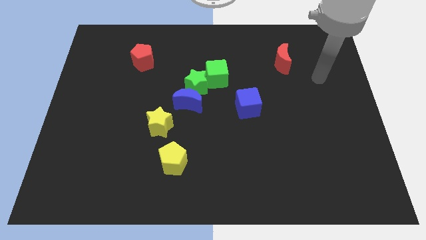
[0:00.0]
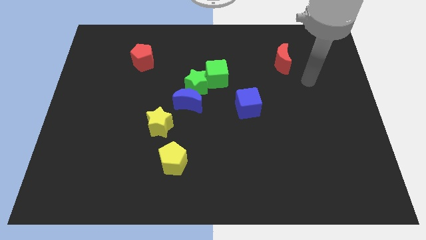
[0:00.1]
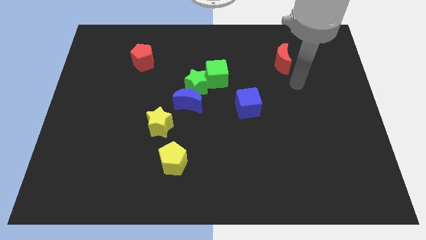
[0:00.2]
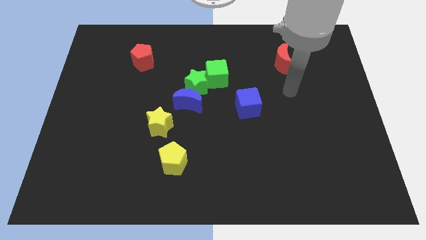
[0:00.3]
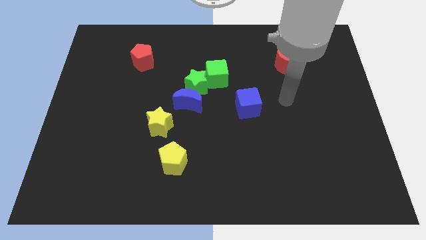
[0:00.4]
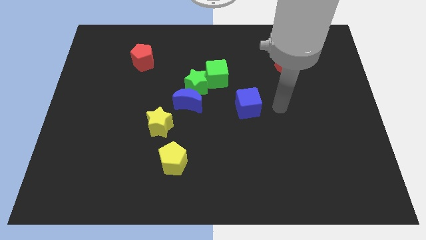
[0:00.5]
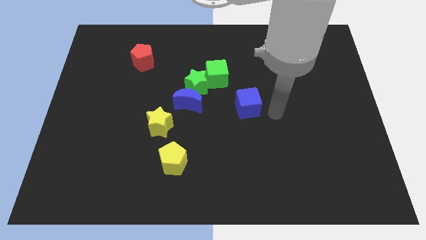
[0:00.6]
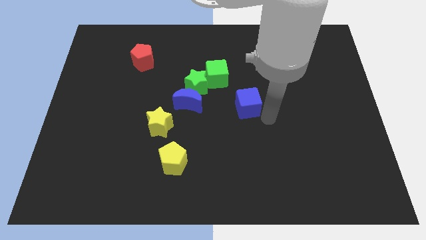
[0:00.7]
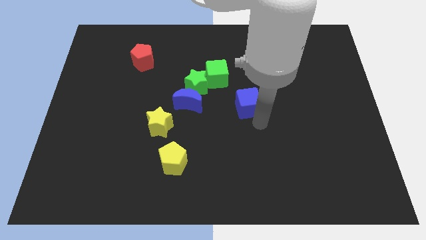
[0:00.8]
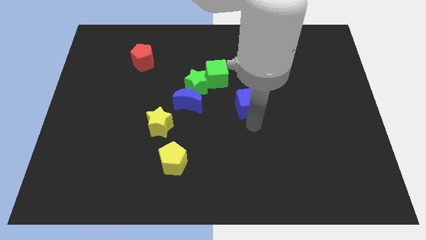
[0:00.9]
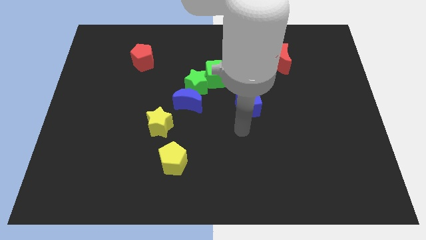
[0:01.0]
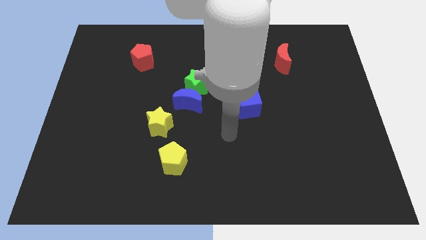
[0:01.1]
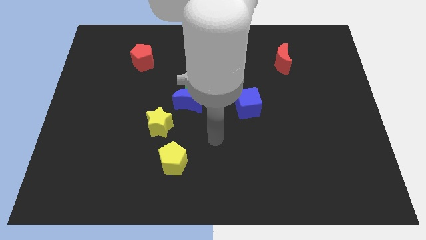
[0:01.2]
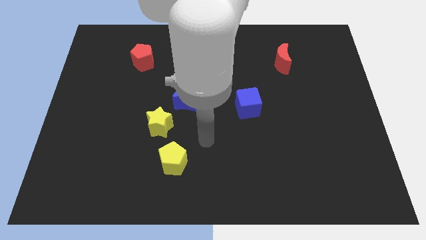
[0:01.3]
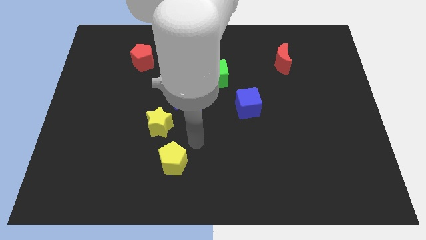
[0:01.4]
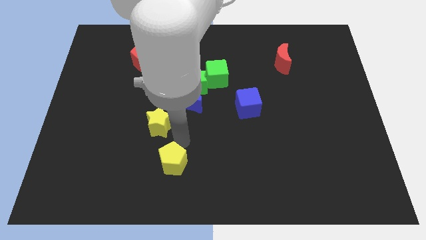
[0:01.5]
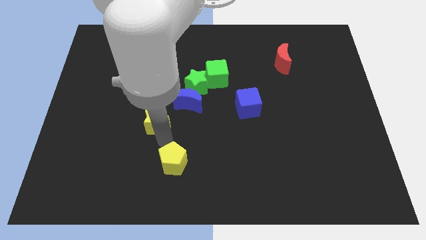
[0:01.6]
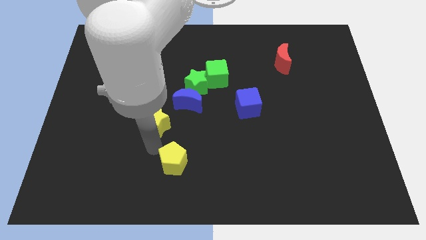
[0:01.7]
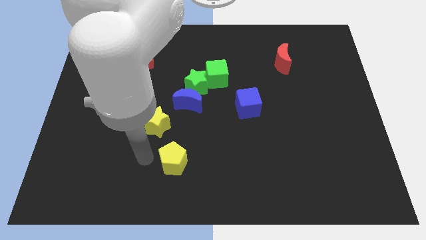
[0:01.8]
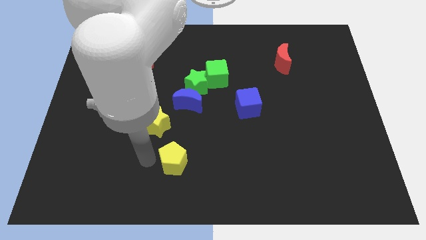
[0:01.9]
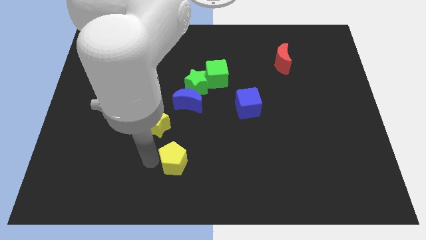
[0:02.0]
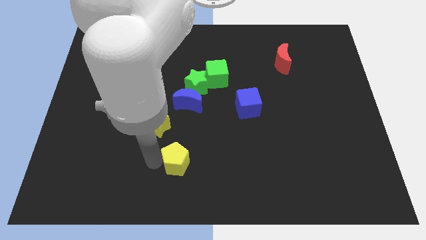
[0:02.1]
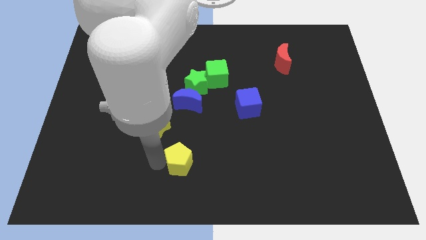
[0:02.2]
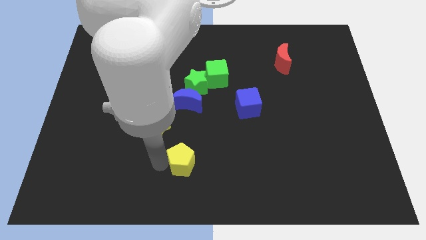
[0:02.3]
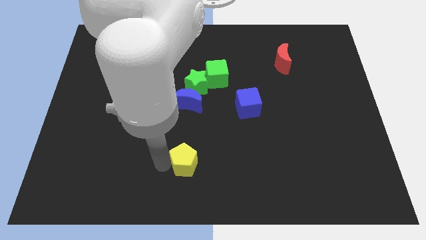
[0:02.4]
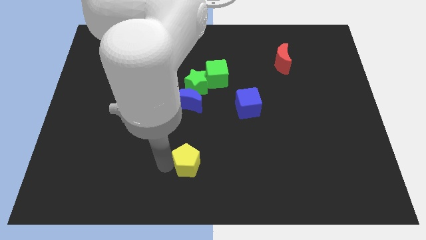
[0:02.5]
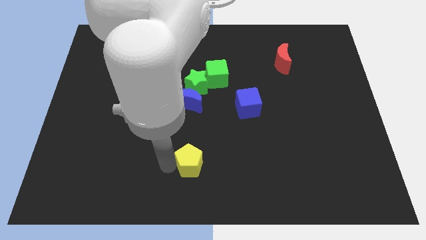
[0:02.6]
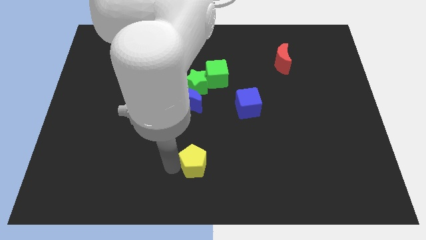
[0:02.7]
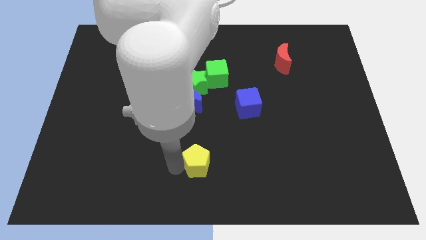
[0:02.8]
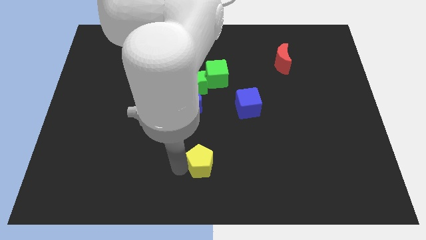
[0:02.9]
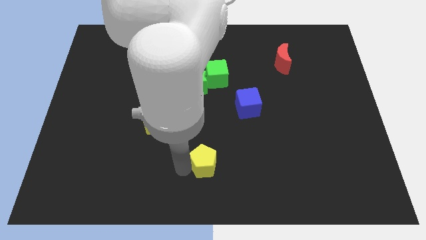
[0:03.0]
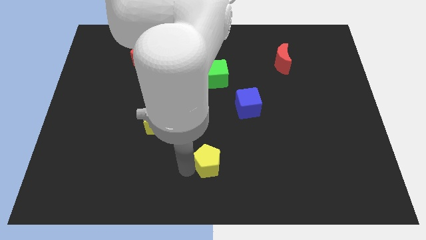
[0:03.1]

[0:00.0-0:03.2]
slightly move the yellow pentagon to the right

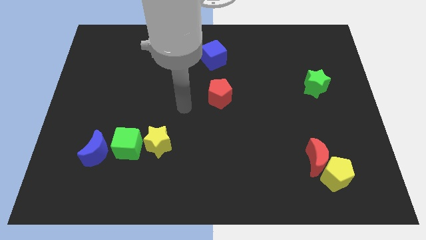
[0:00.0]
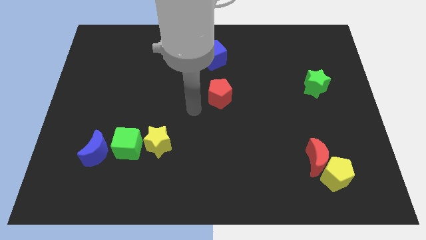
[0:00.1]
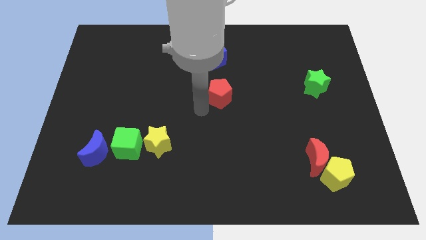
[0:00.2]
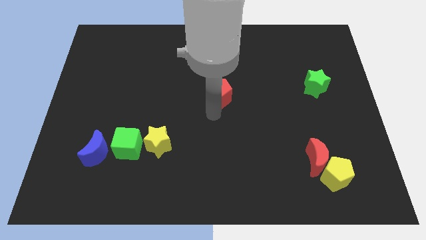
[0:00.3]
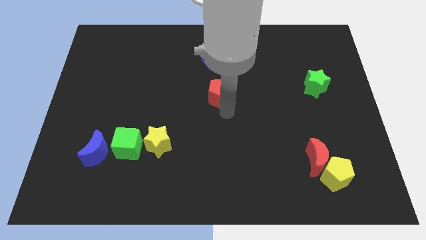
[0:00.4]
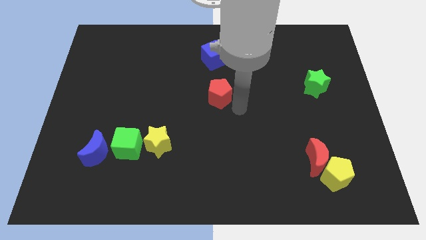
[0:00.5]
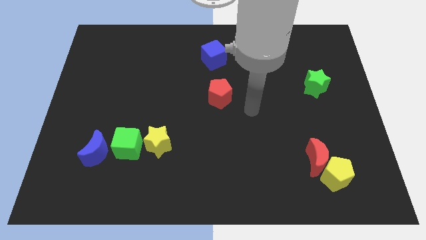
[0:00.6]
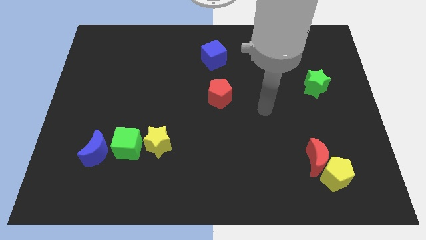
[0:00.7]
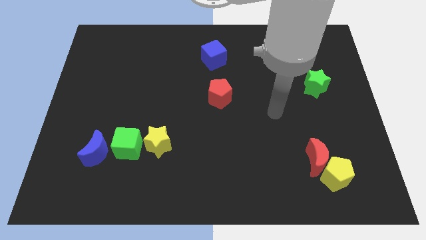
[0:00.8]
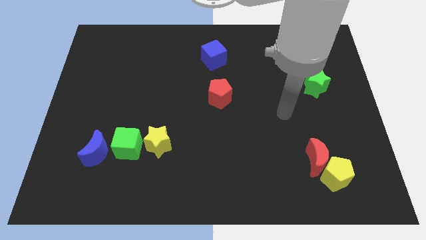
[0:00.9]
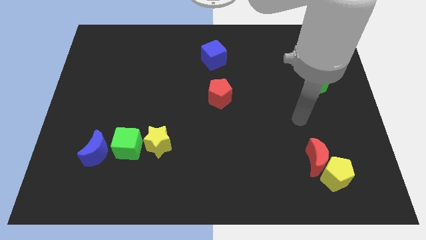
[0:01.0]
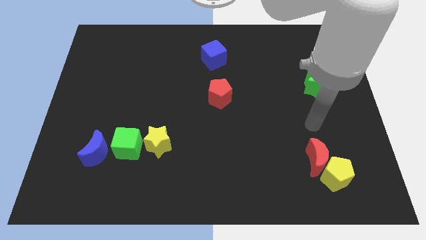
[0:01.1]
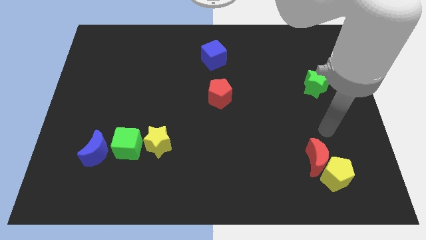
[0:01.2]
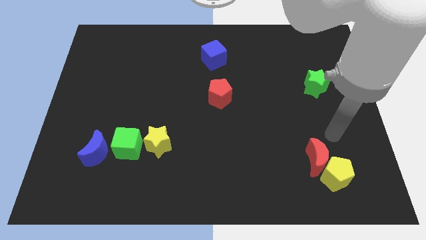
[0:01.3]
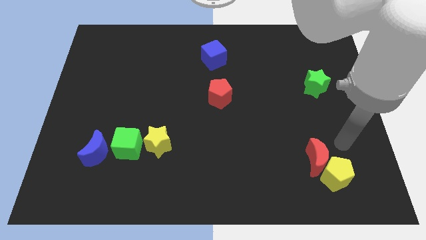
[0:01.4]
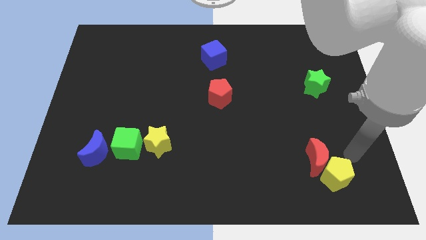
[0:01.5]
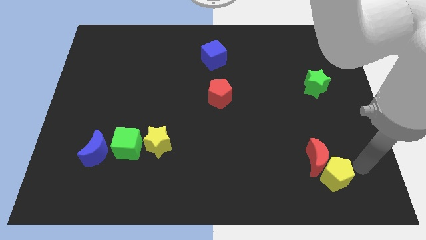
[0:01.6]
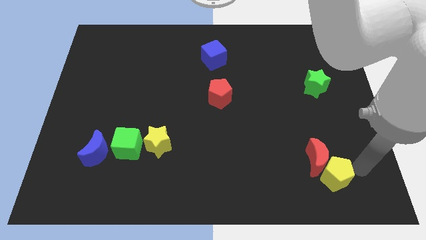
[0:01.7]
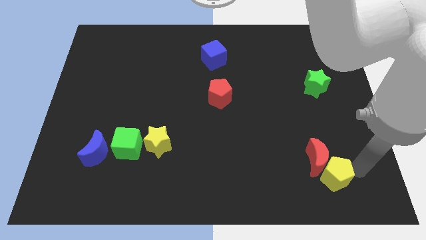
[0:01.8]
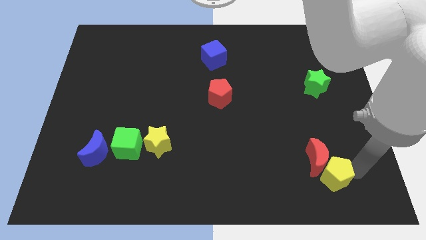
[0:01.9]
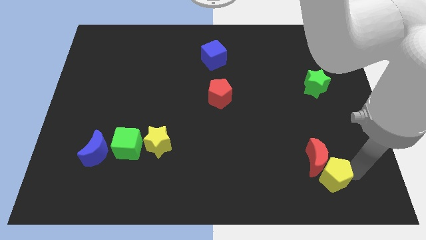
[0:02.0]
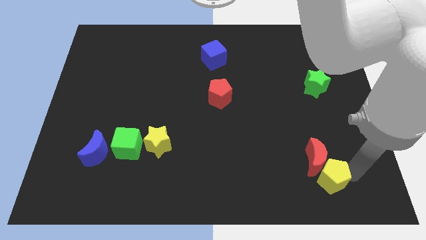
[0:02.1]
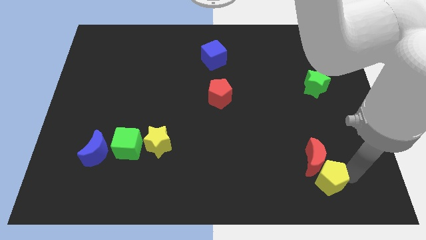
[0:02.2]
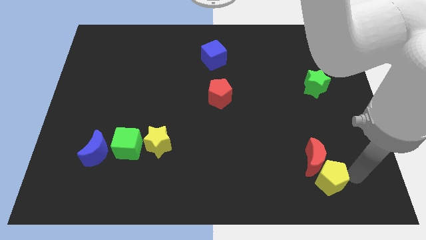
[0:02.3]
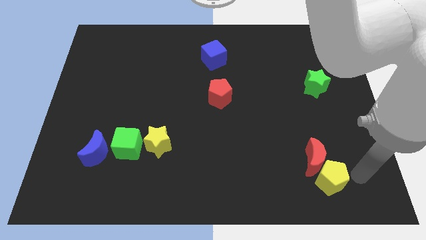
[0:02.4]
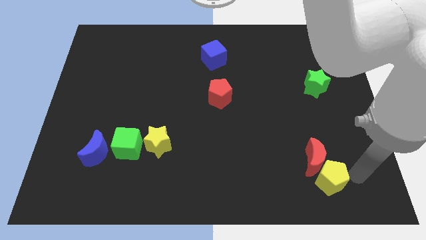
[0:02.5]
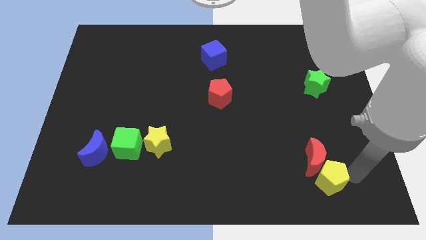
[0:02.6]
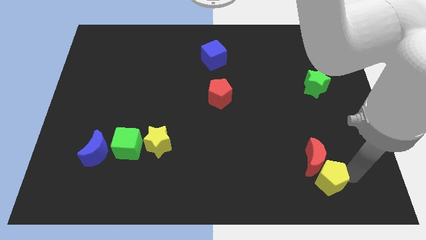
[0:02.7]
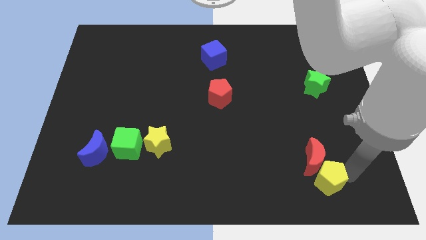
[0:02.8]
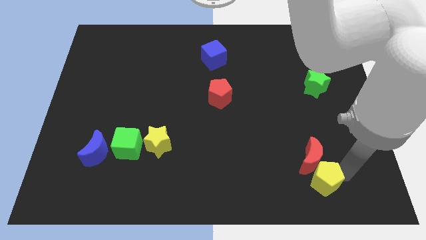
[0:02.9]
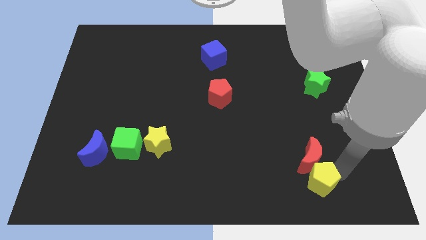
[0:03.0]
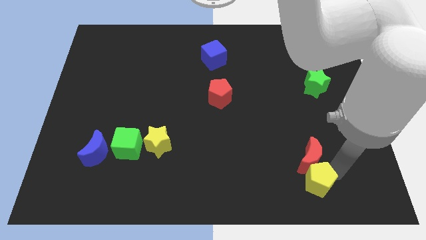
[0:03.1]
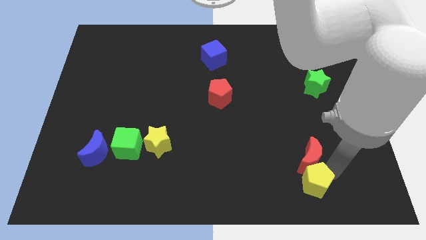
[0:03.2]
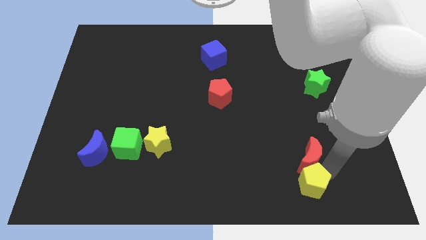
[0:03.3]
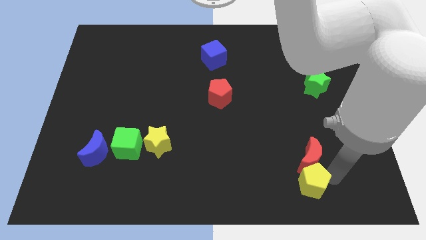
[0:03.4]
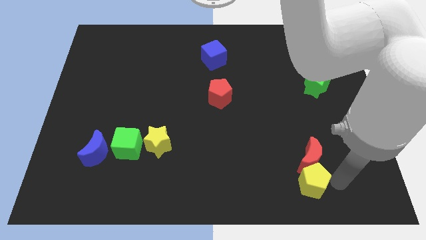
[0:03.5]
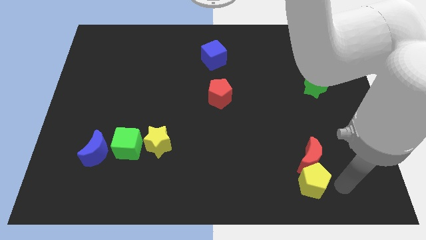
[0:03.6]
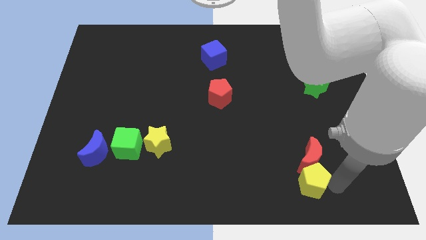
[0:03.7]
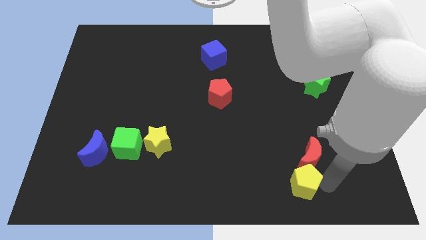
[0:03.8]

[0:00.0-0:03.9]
move the yellow pentagon to the left a little bit

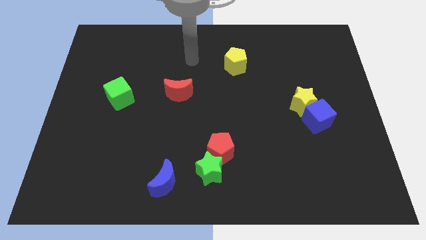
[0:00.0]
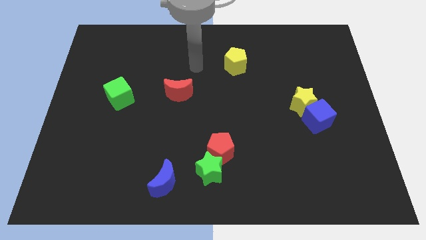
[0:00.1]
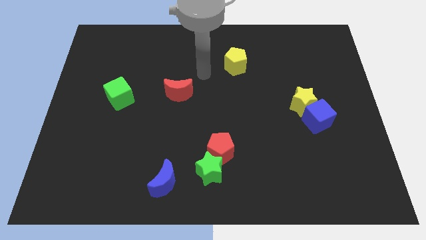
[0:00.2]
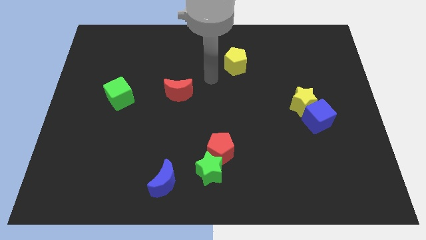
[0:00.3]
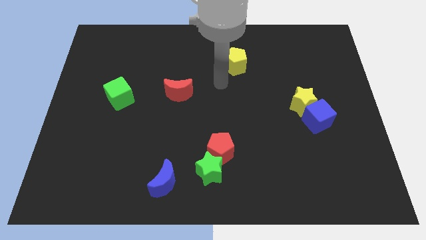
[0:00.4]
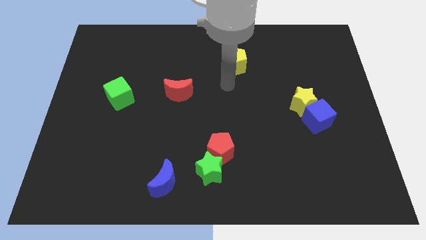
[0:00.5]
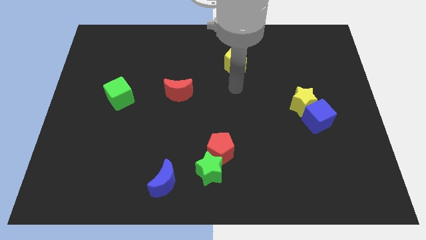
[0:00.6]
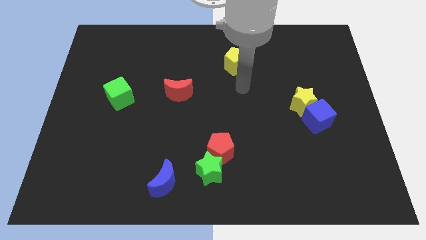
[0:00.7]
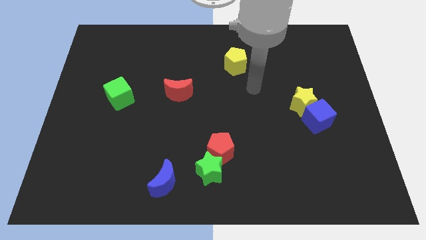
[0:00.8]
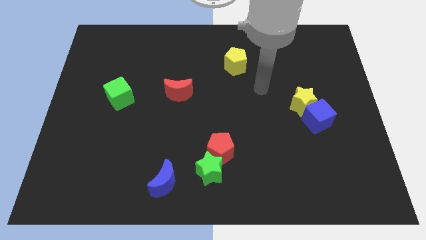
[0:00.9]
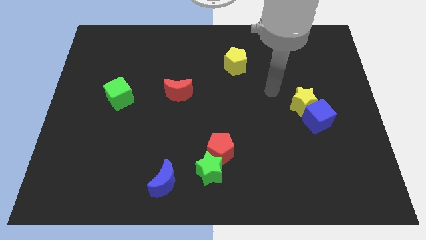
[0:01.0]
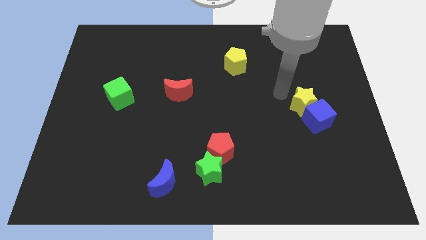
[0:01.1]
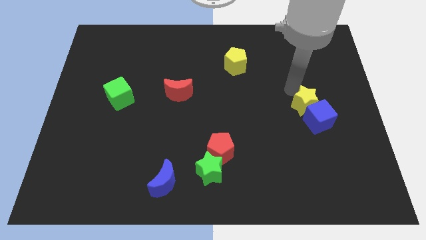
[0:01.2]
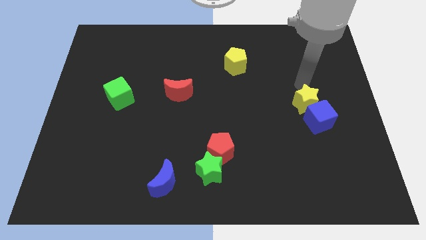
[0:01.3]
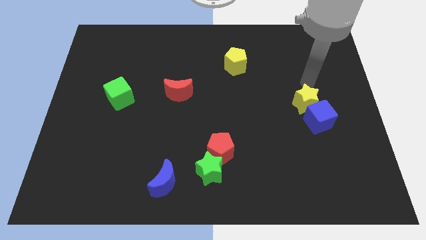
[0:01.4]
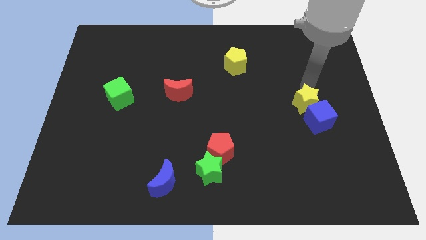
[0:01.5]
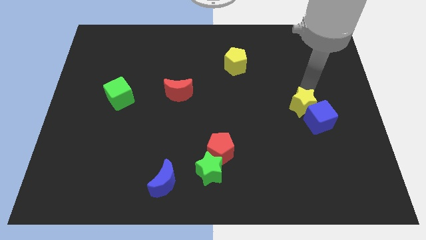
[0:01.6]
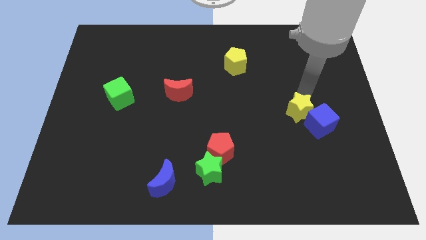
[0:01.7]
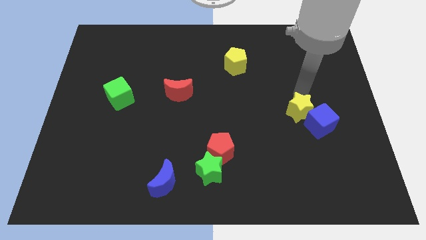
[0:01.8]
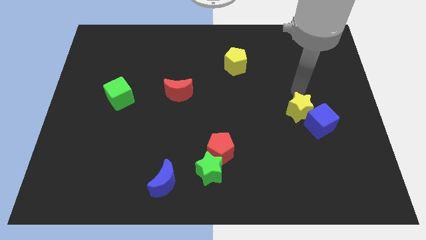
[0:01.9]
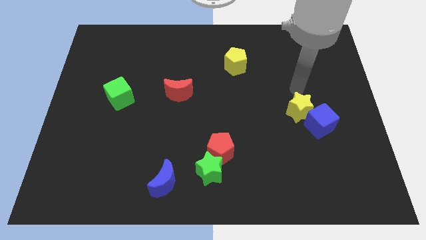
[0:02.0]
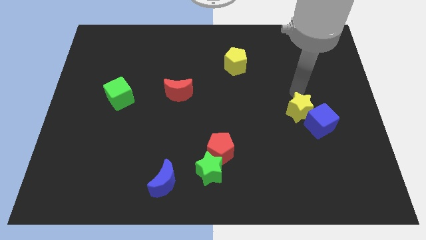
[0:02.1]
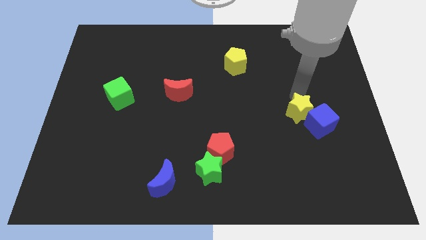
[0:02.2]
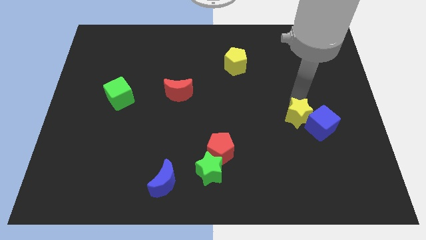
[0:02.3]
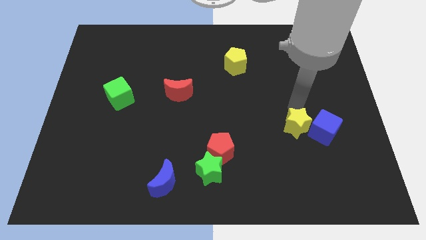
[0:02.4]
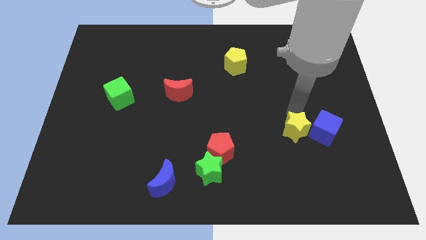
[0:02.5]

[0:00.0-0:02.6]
slightly slide the yellow star downwards
